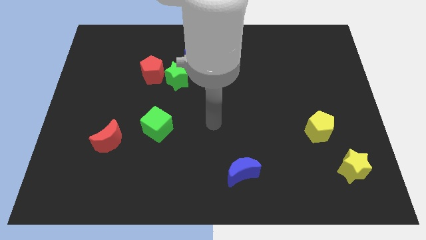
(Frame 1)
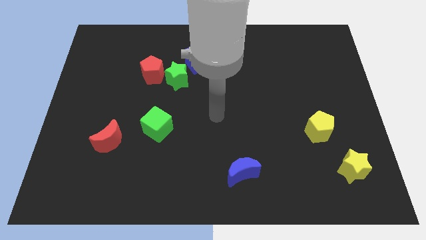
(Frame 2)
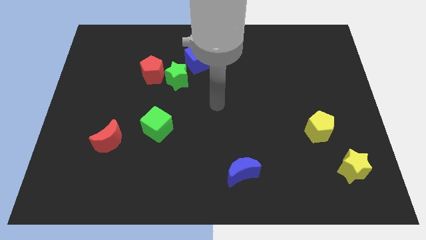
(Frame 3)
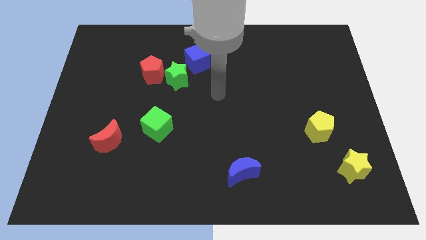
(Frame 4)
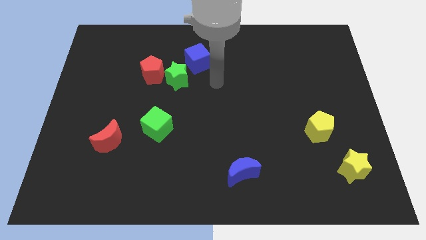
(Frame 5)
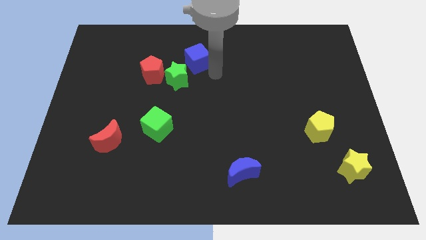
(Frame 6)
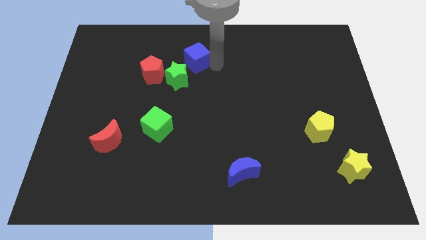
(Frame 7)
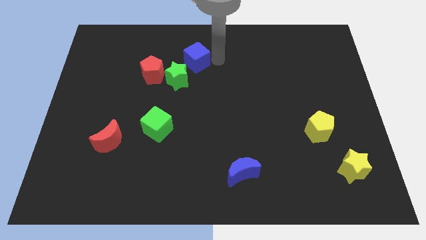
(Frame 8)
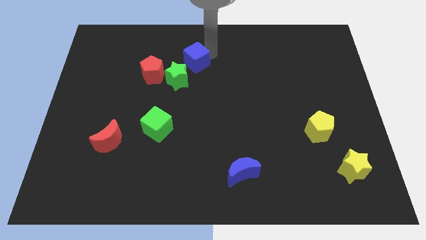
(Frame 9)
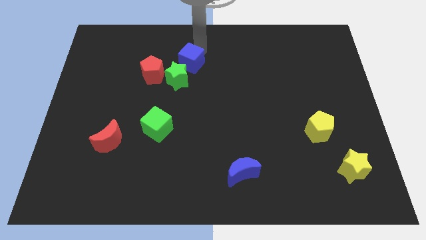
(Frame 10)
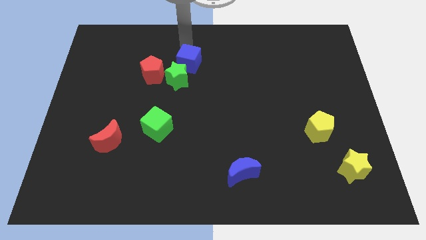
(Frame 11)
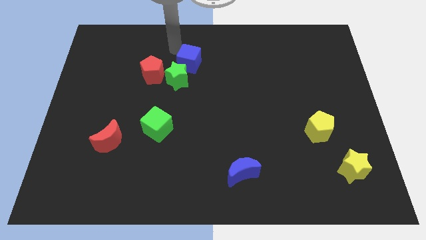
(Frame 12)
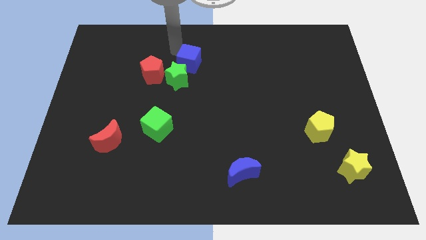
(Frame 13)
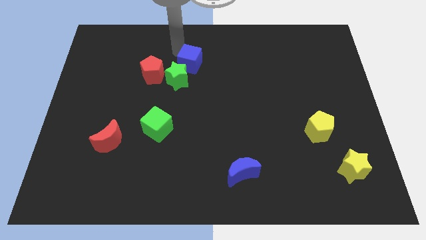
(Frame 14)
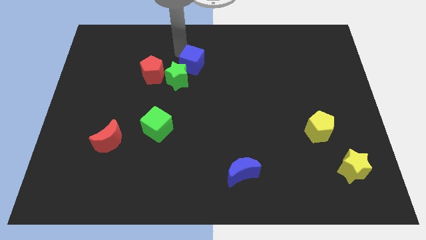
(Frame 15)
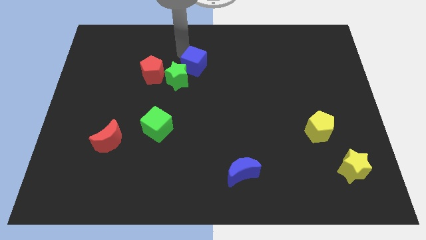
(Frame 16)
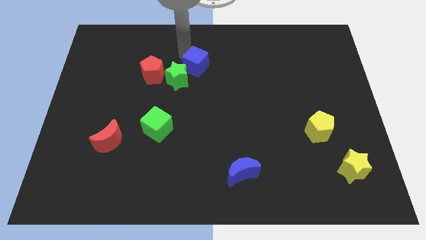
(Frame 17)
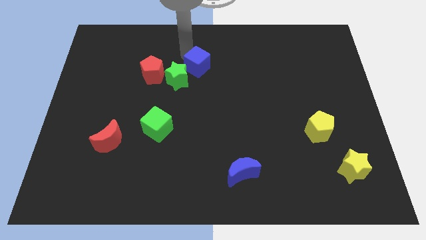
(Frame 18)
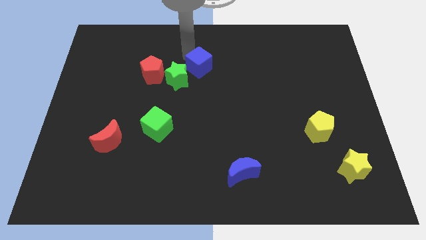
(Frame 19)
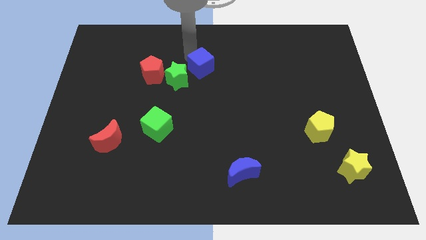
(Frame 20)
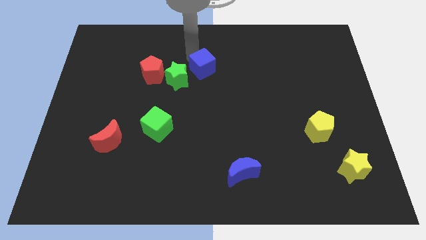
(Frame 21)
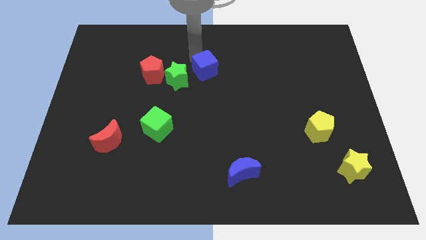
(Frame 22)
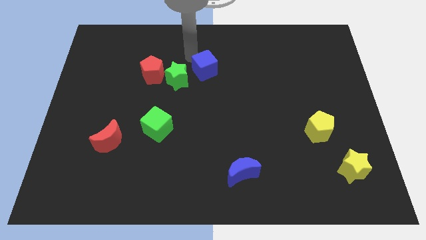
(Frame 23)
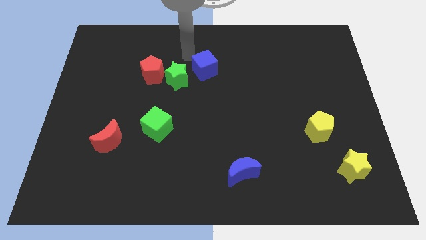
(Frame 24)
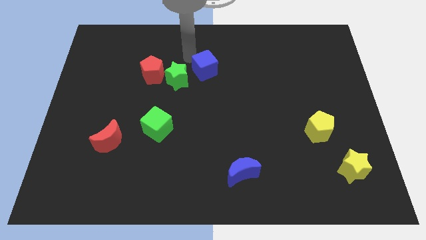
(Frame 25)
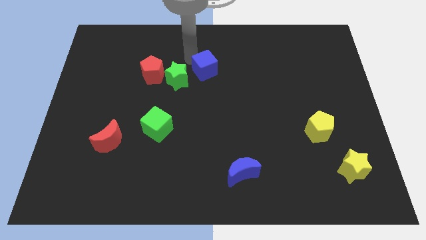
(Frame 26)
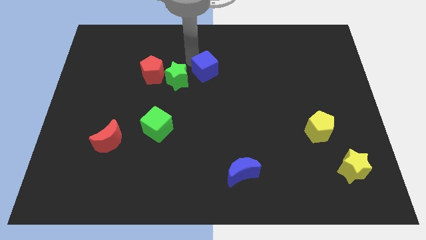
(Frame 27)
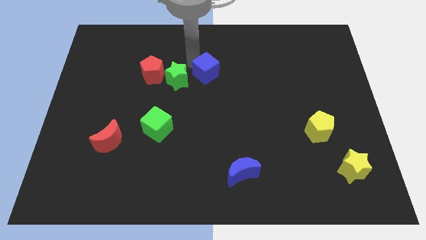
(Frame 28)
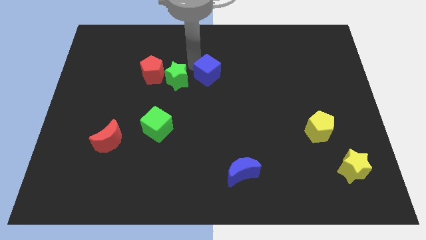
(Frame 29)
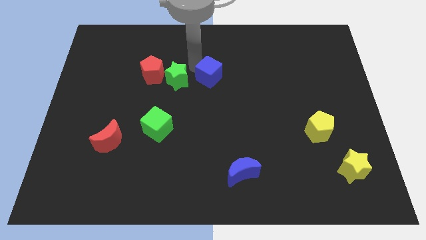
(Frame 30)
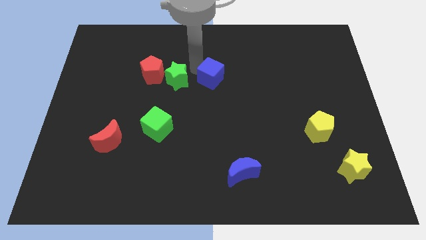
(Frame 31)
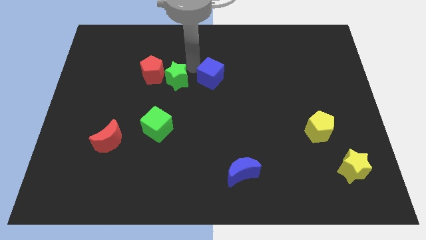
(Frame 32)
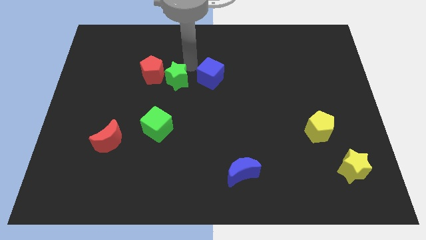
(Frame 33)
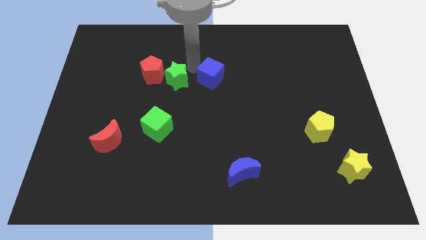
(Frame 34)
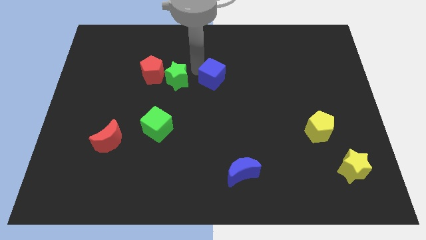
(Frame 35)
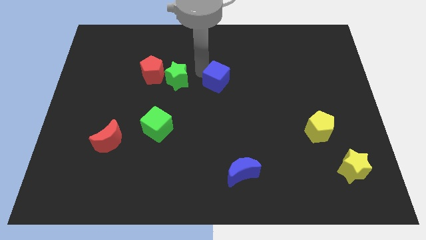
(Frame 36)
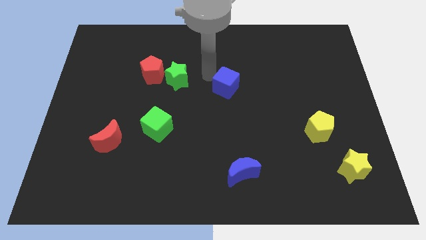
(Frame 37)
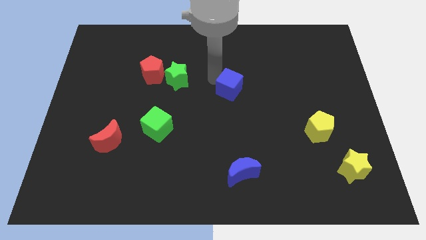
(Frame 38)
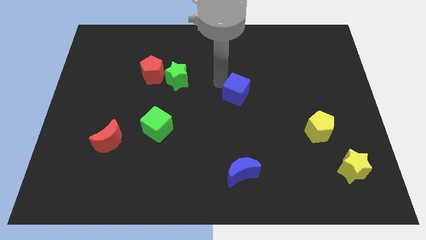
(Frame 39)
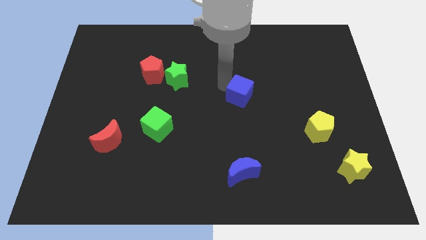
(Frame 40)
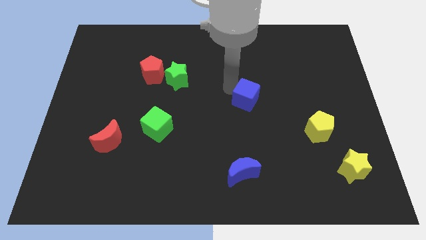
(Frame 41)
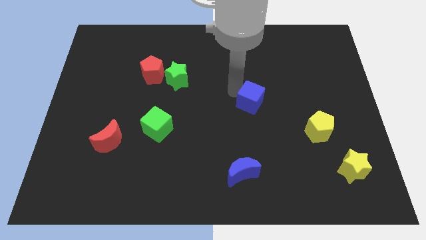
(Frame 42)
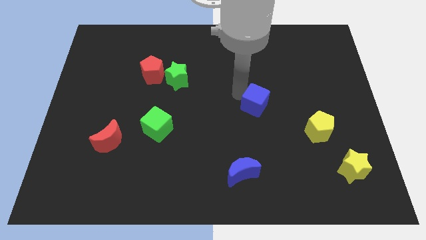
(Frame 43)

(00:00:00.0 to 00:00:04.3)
push the blue cube down and right

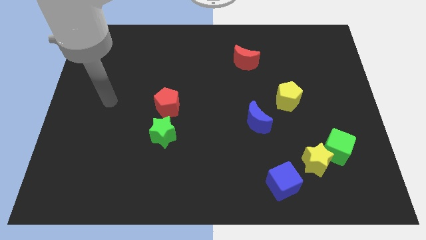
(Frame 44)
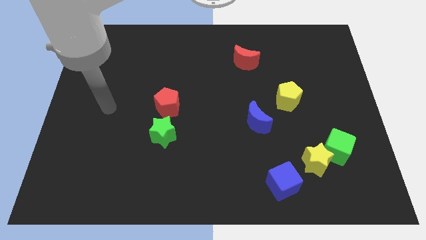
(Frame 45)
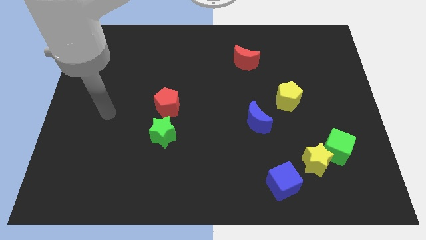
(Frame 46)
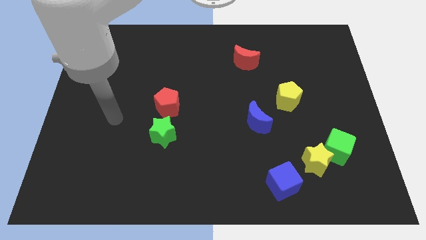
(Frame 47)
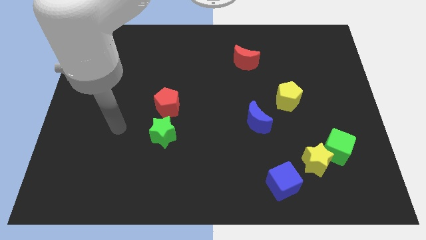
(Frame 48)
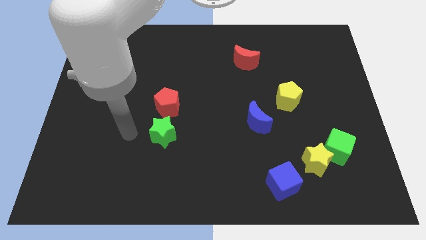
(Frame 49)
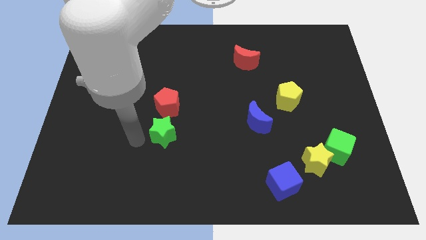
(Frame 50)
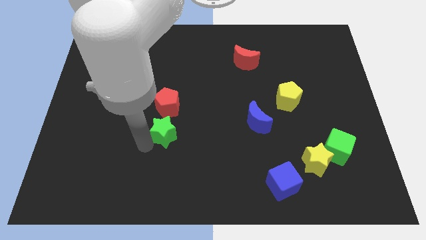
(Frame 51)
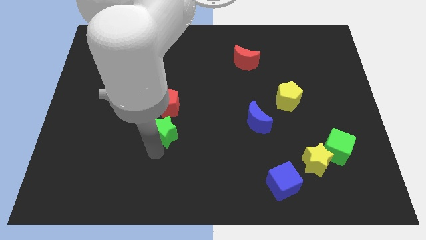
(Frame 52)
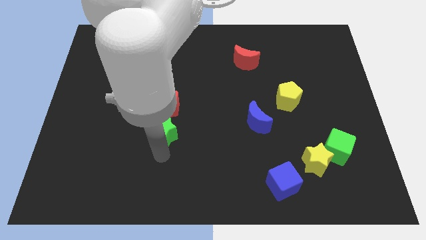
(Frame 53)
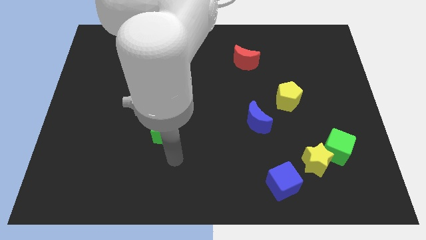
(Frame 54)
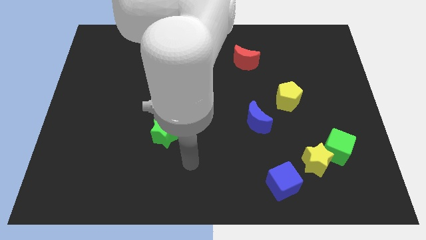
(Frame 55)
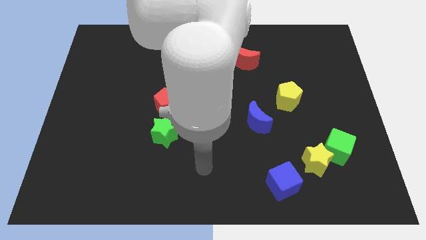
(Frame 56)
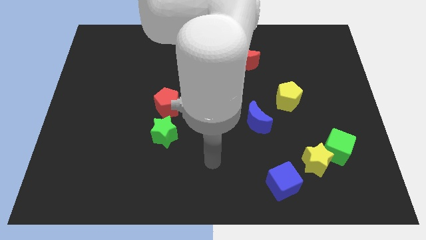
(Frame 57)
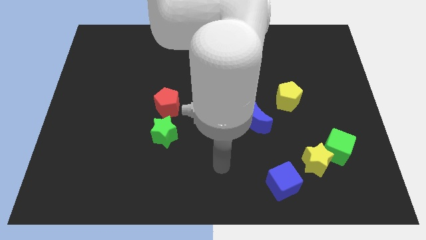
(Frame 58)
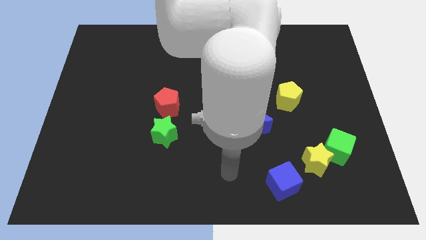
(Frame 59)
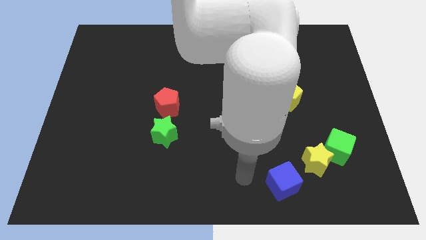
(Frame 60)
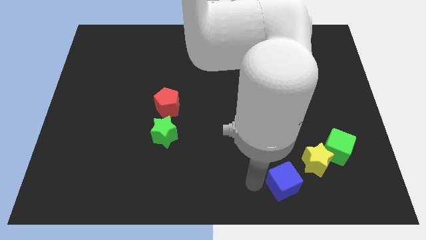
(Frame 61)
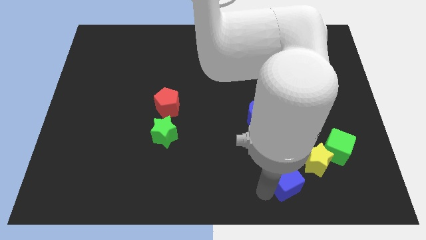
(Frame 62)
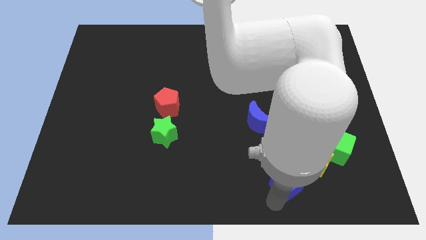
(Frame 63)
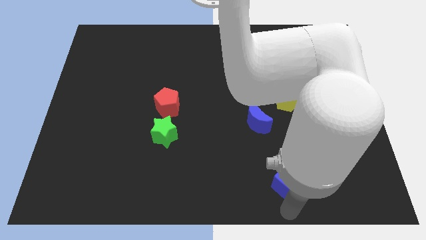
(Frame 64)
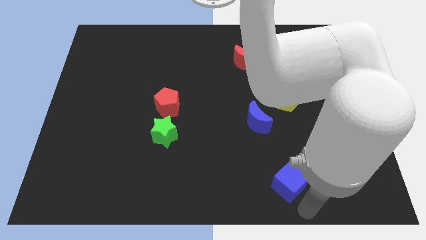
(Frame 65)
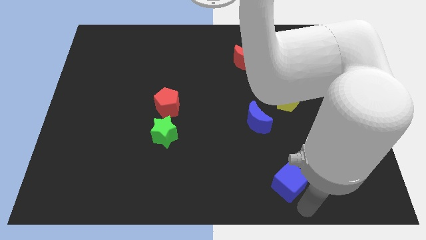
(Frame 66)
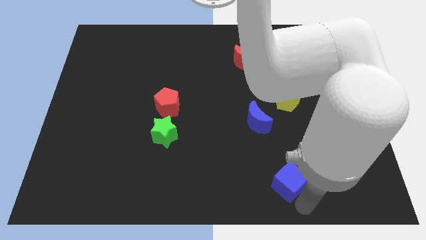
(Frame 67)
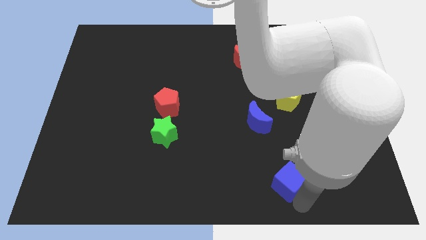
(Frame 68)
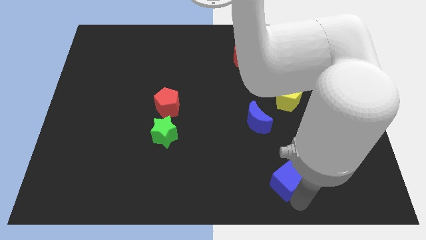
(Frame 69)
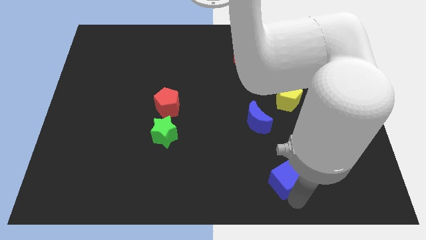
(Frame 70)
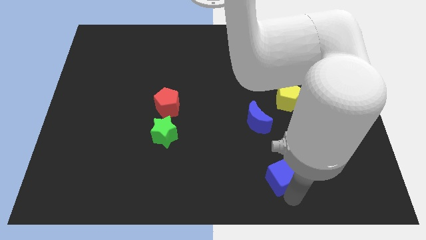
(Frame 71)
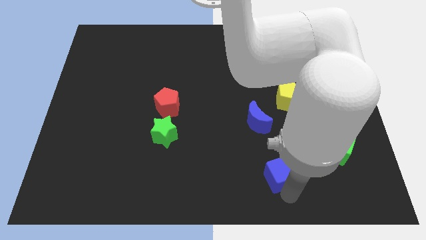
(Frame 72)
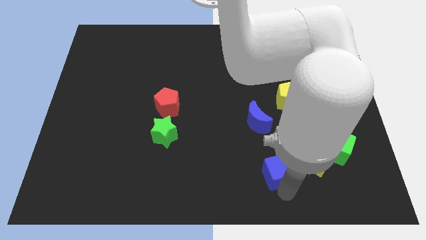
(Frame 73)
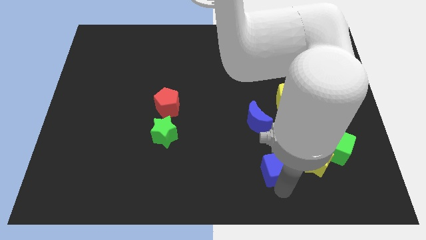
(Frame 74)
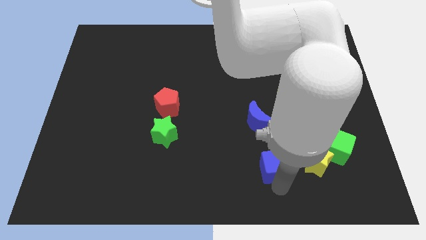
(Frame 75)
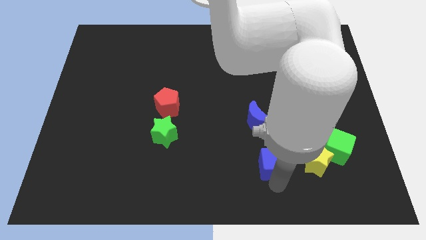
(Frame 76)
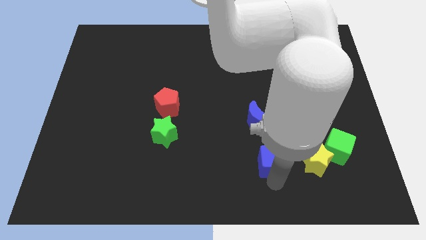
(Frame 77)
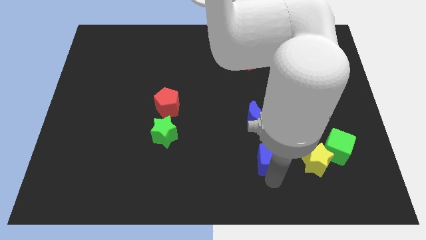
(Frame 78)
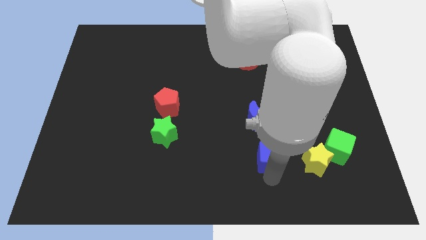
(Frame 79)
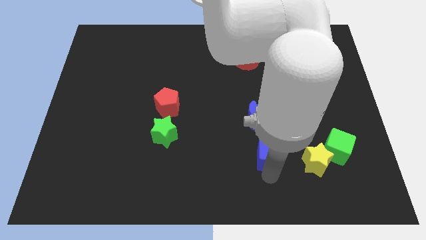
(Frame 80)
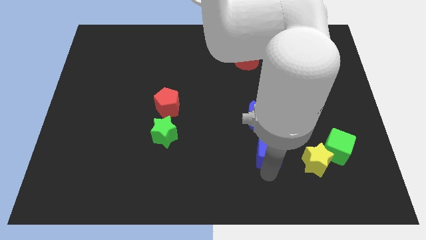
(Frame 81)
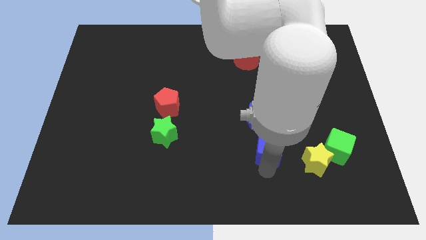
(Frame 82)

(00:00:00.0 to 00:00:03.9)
slightly push the blue cube up

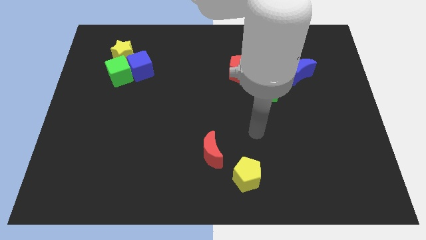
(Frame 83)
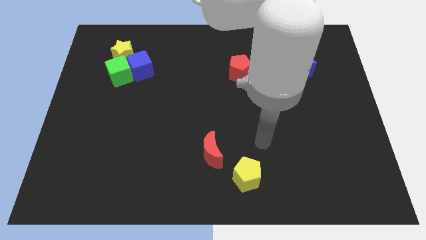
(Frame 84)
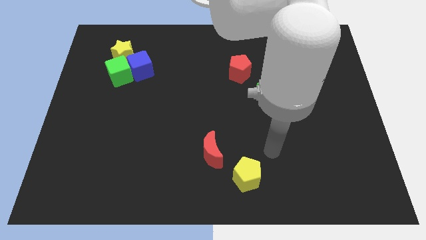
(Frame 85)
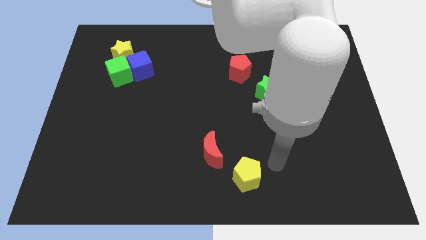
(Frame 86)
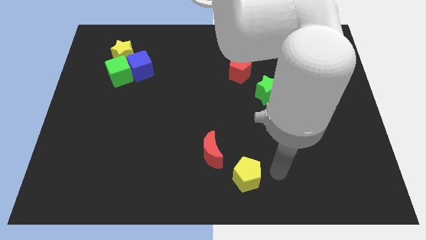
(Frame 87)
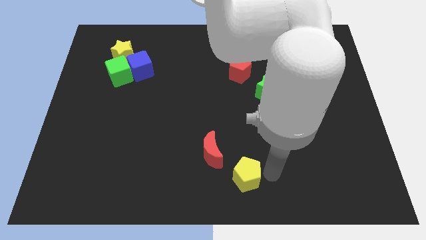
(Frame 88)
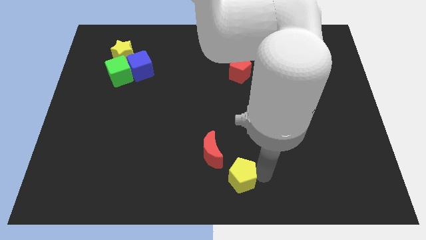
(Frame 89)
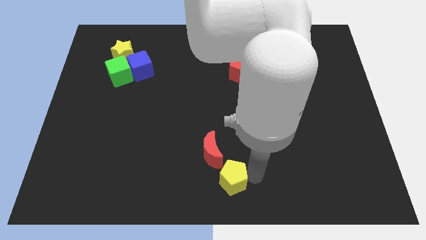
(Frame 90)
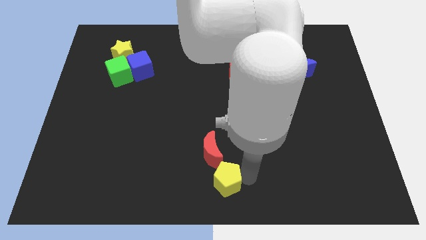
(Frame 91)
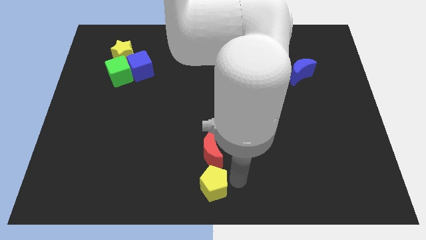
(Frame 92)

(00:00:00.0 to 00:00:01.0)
move the yellow pentagon to the left a little
